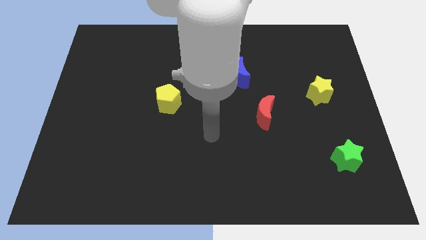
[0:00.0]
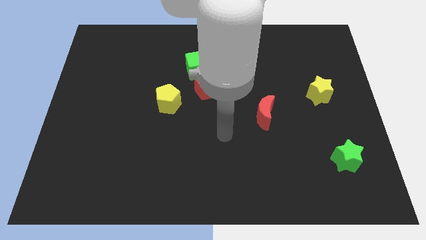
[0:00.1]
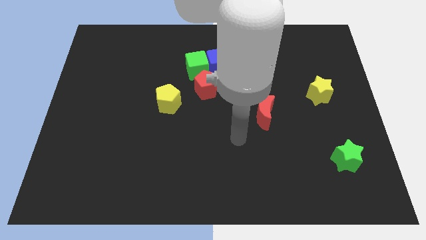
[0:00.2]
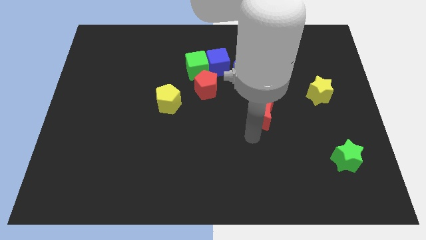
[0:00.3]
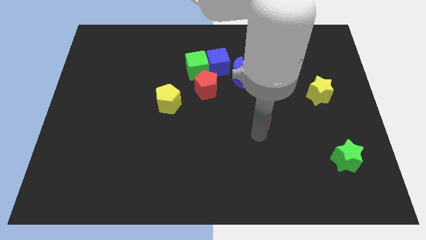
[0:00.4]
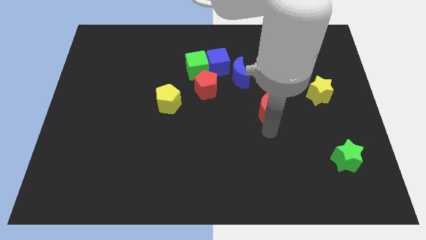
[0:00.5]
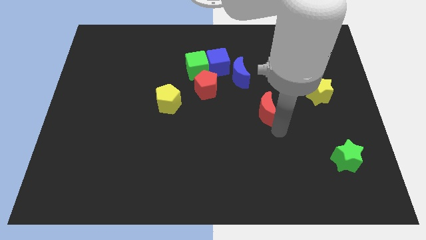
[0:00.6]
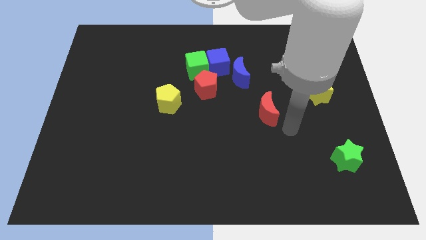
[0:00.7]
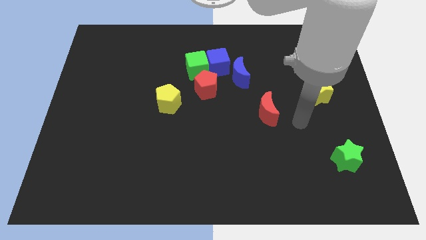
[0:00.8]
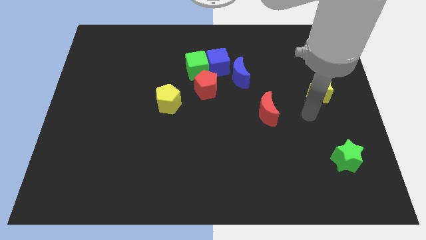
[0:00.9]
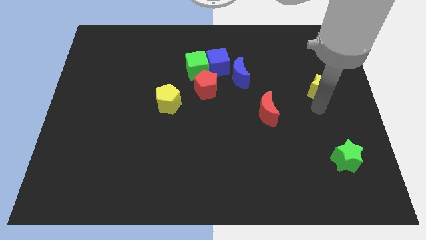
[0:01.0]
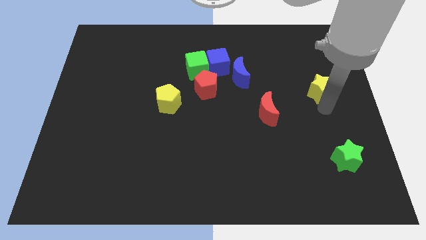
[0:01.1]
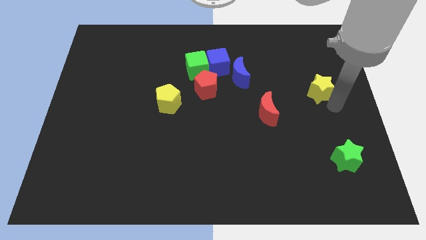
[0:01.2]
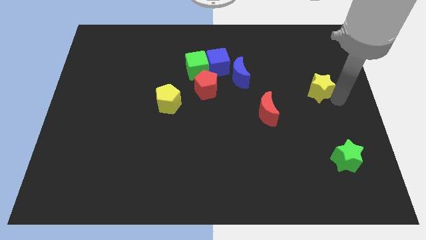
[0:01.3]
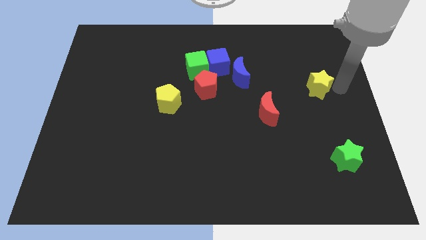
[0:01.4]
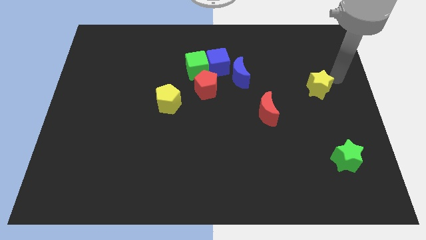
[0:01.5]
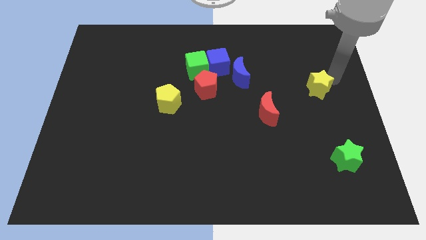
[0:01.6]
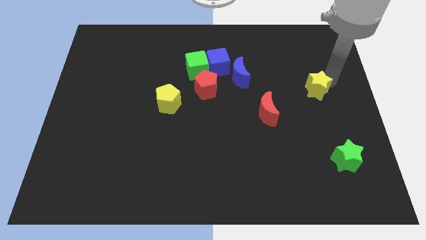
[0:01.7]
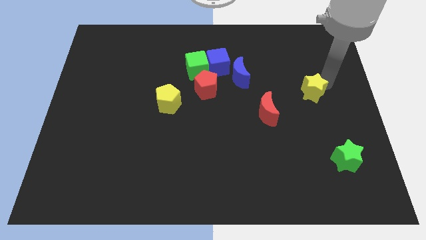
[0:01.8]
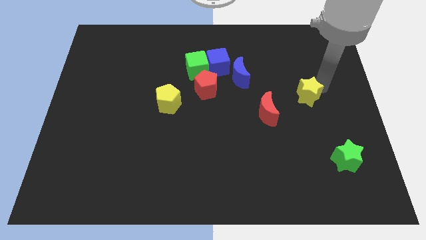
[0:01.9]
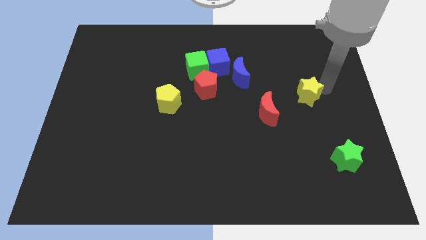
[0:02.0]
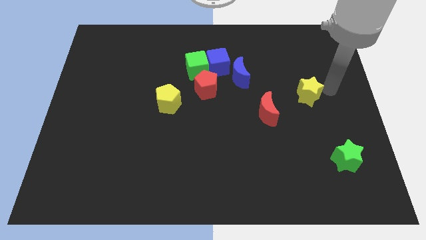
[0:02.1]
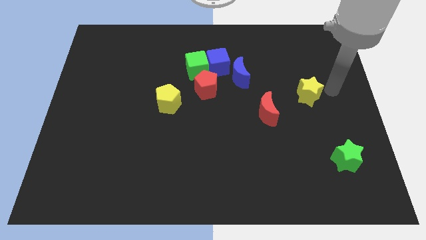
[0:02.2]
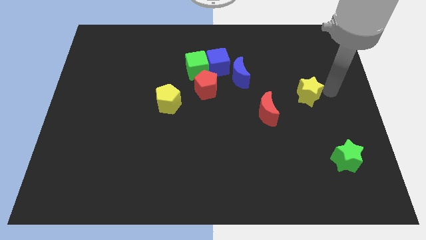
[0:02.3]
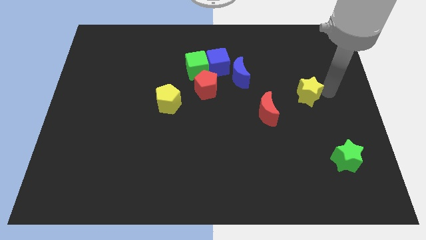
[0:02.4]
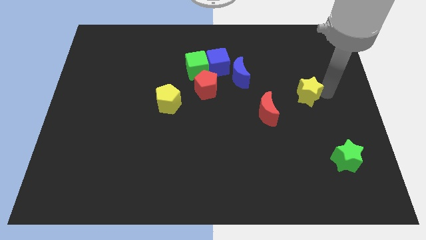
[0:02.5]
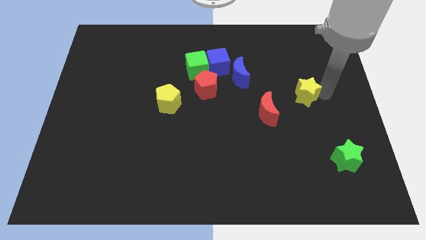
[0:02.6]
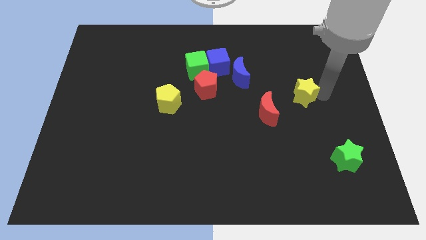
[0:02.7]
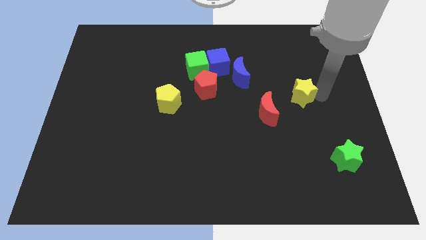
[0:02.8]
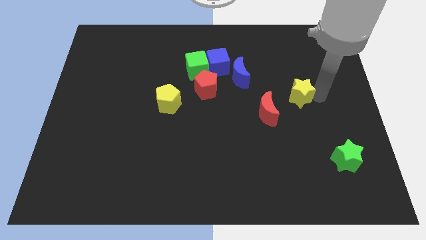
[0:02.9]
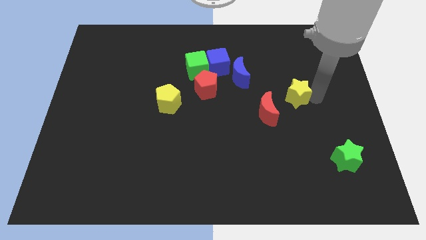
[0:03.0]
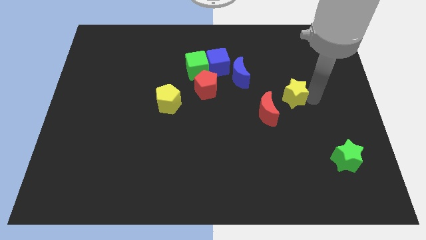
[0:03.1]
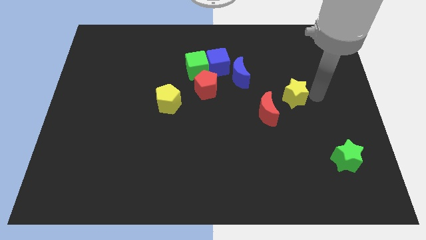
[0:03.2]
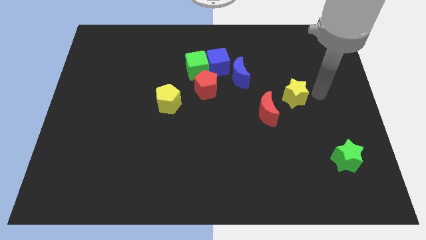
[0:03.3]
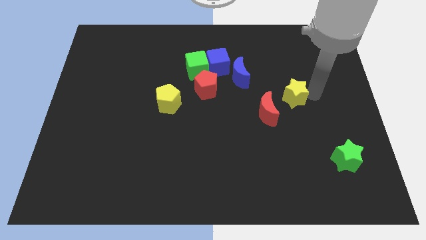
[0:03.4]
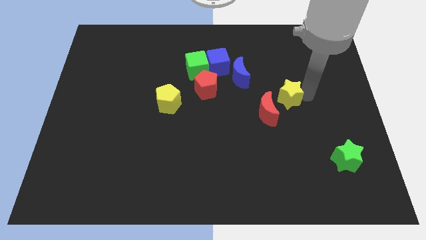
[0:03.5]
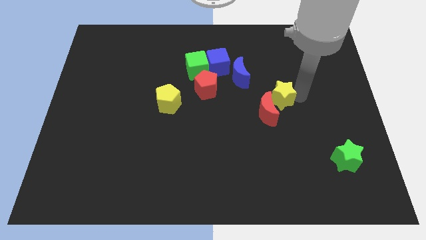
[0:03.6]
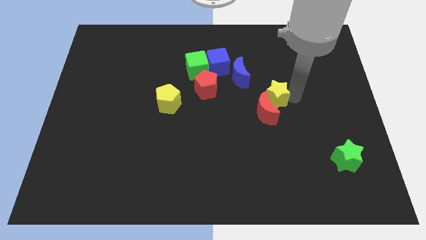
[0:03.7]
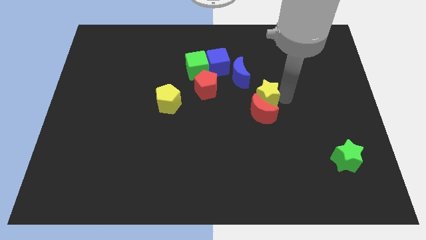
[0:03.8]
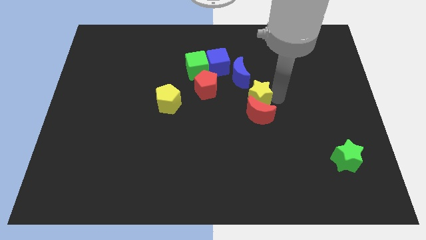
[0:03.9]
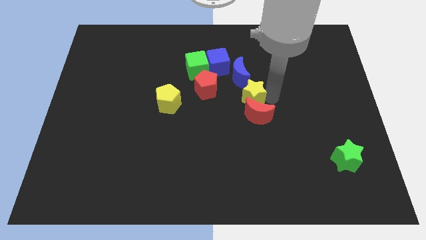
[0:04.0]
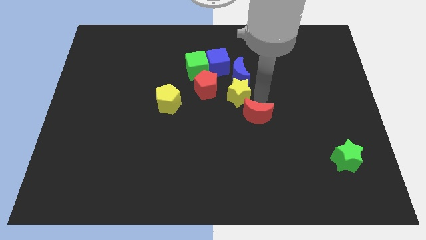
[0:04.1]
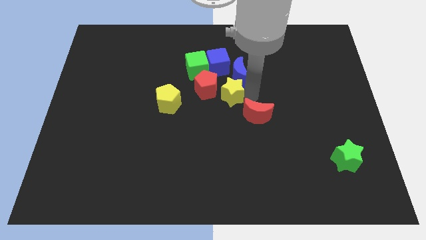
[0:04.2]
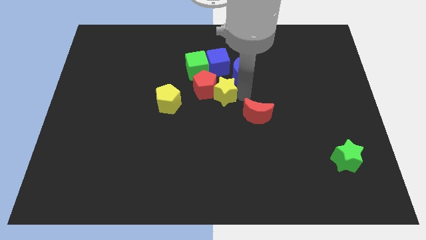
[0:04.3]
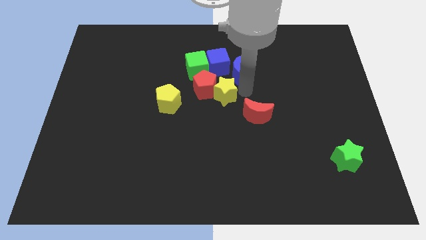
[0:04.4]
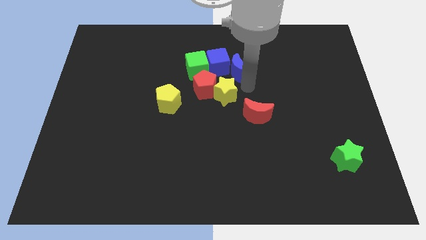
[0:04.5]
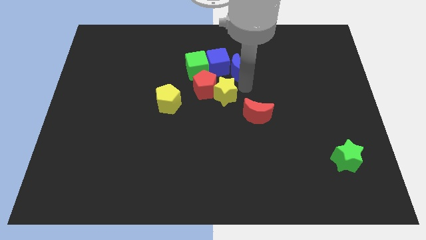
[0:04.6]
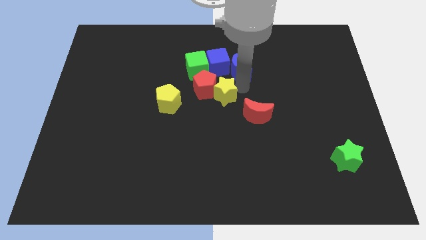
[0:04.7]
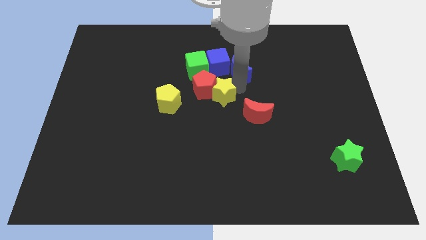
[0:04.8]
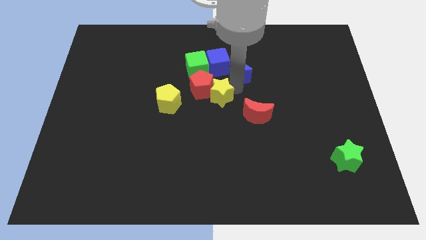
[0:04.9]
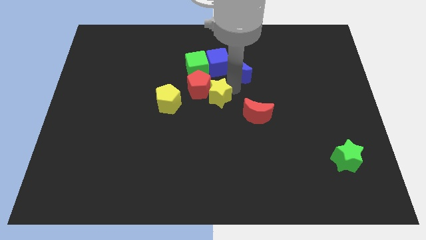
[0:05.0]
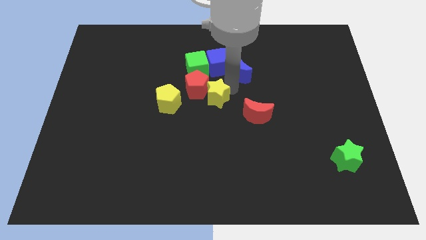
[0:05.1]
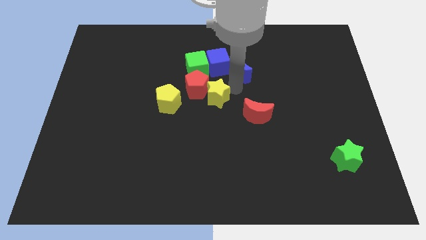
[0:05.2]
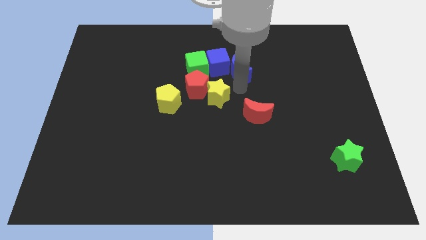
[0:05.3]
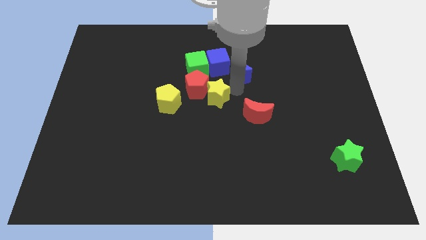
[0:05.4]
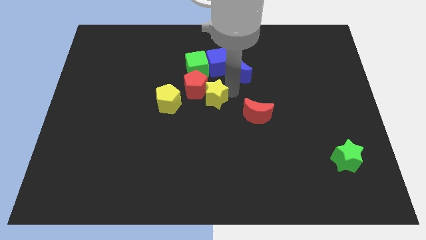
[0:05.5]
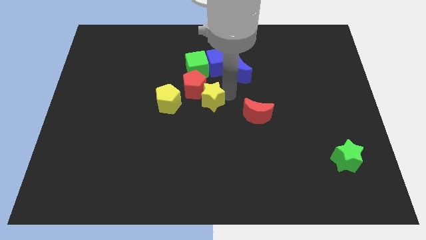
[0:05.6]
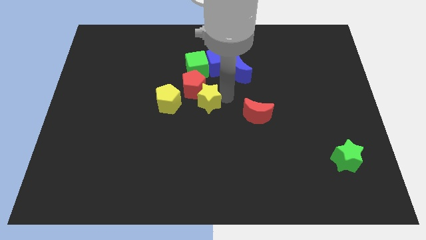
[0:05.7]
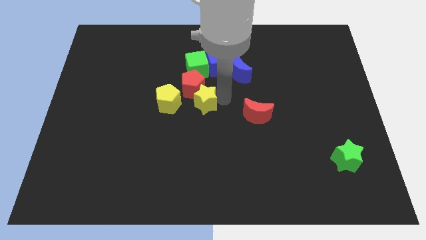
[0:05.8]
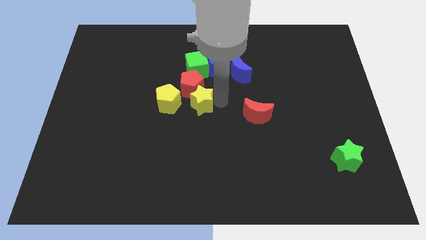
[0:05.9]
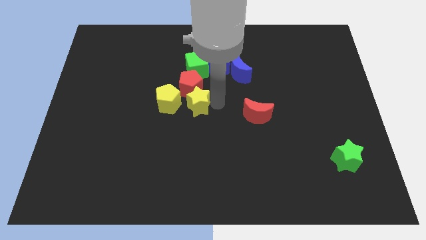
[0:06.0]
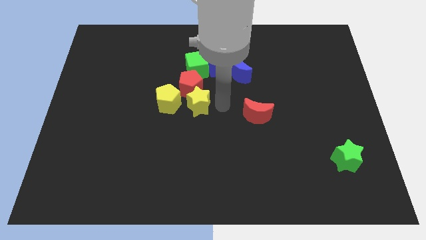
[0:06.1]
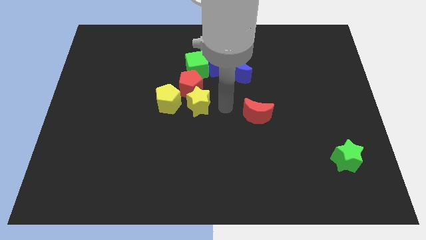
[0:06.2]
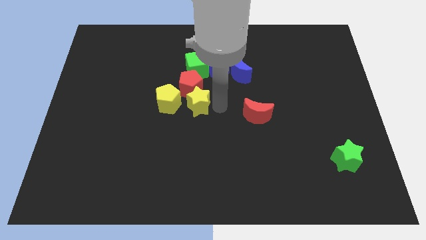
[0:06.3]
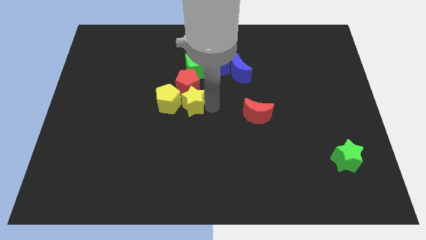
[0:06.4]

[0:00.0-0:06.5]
move the yellow star close to the yellow pentagon
